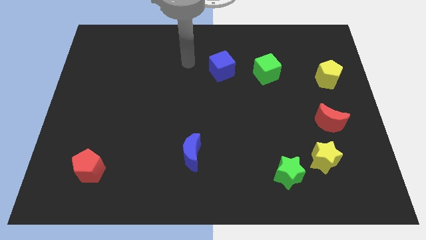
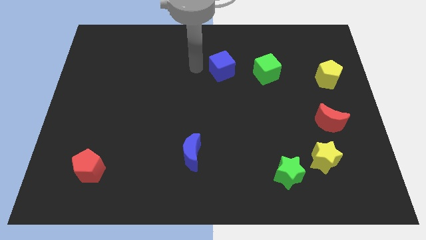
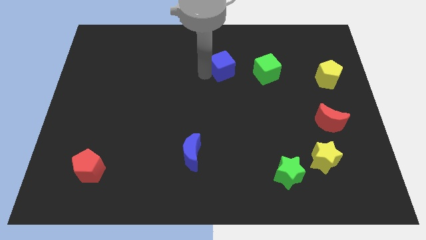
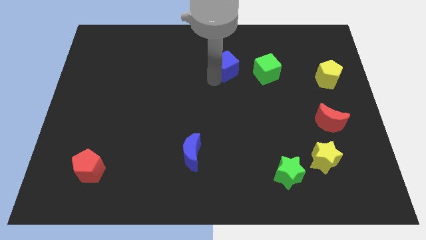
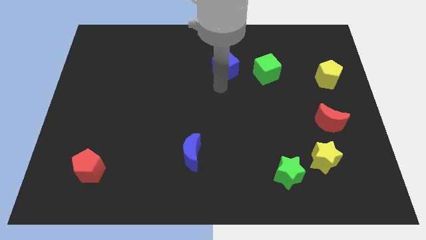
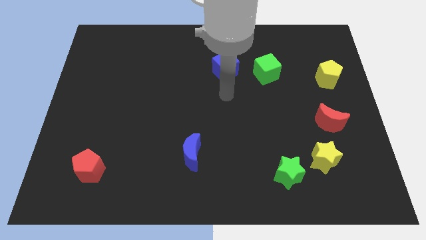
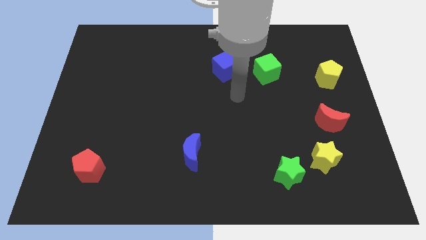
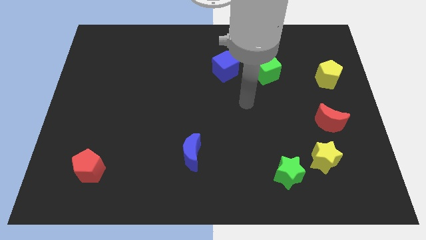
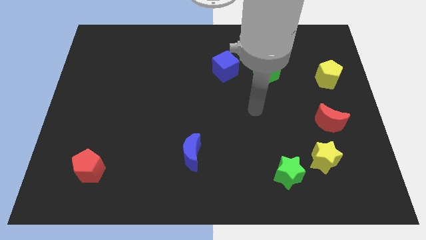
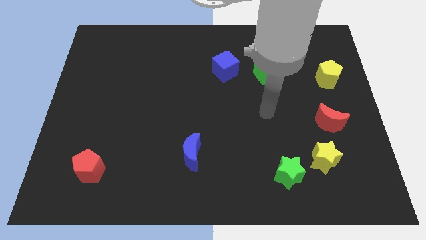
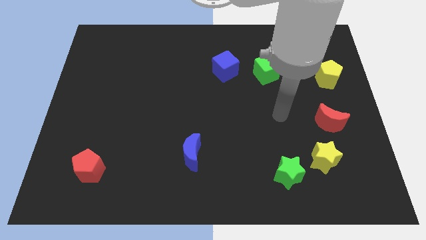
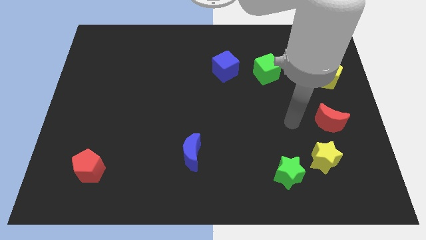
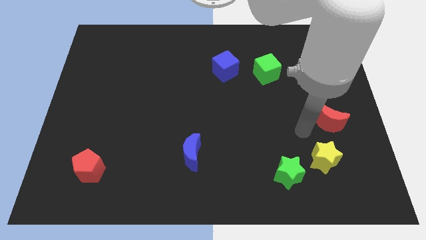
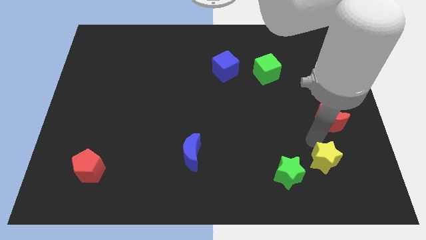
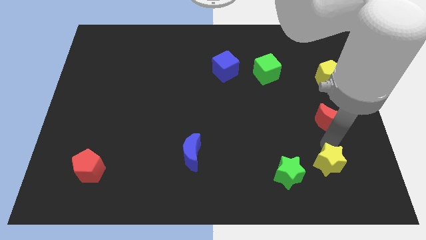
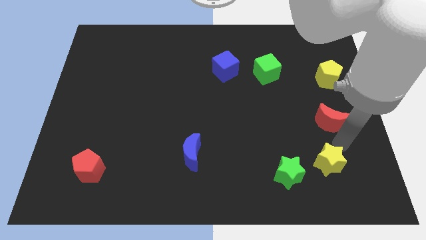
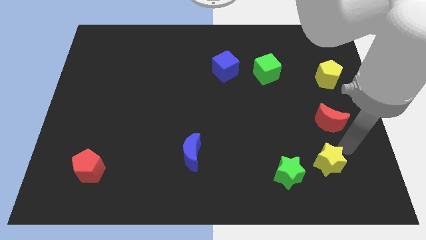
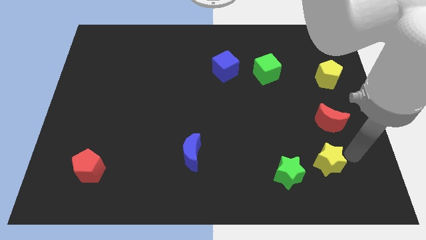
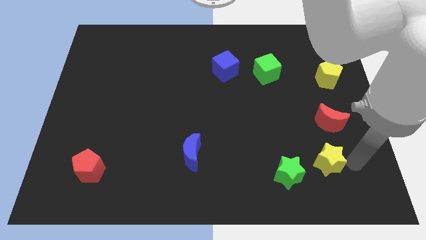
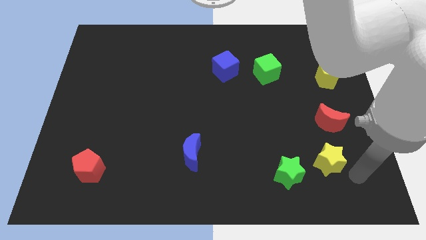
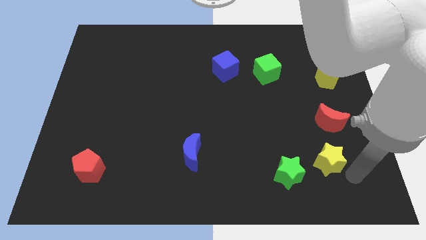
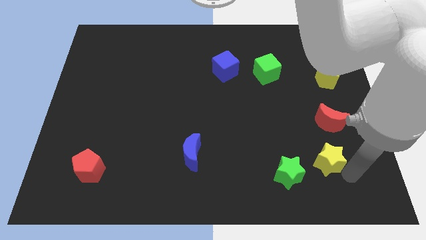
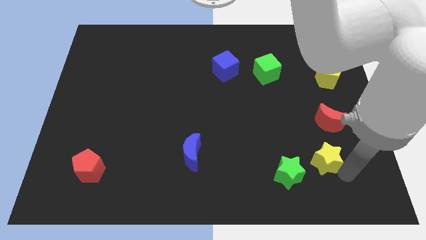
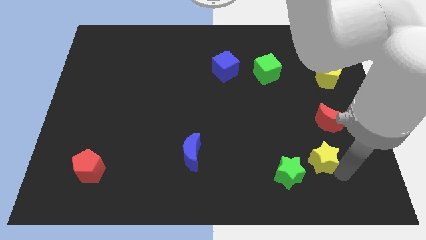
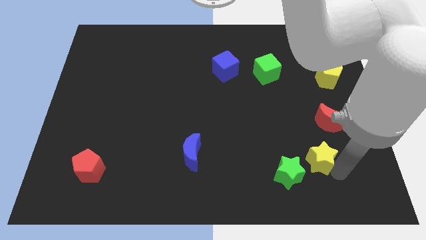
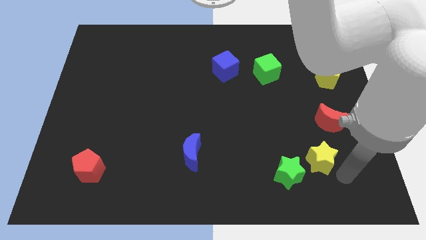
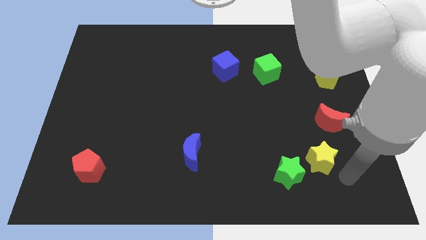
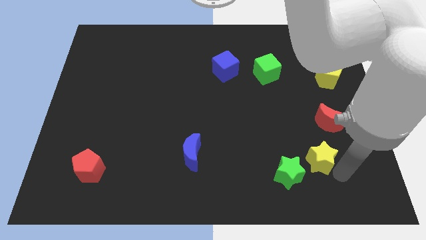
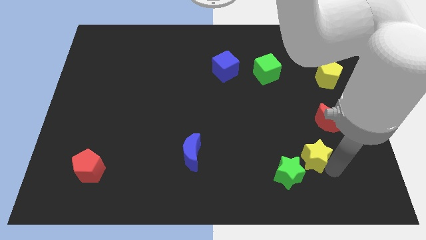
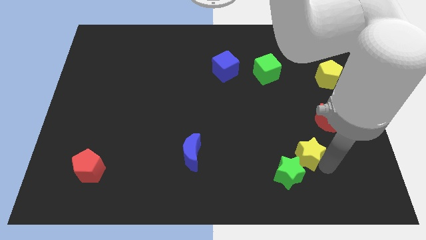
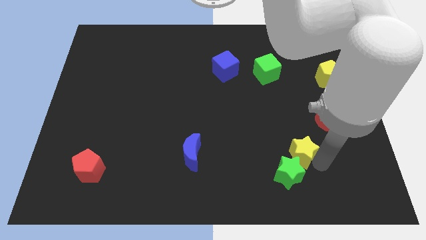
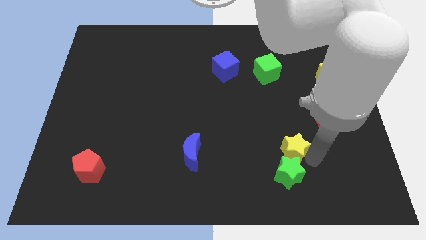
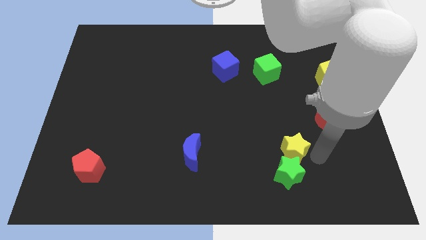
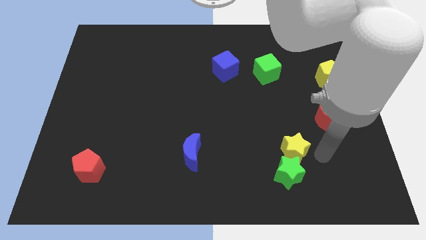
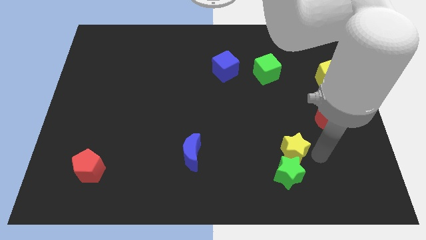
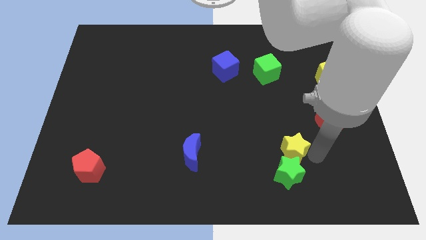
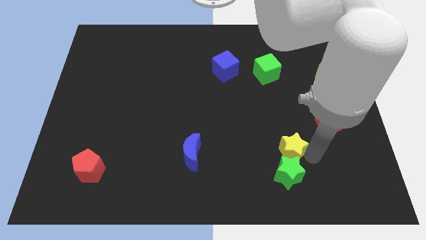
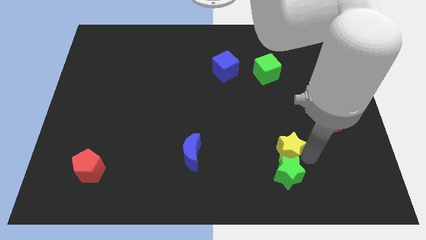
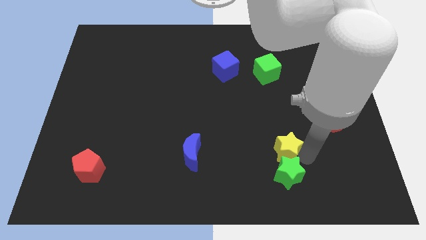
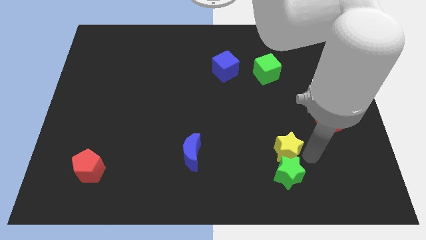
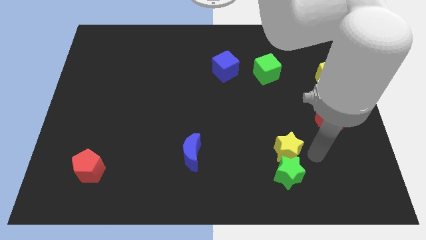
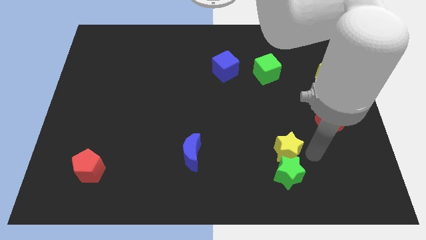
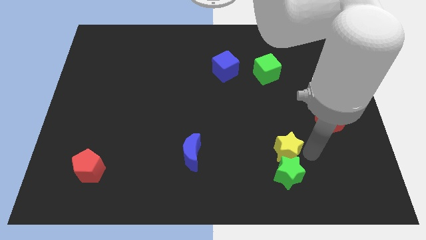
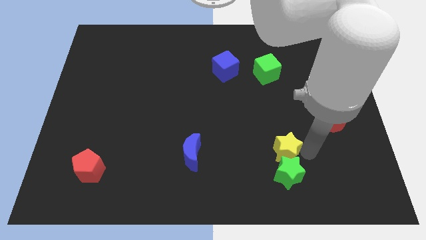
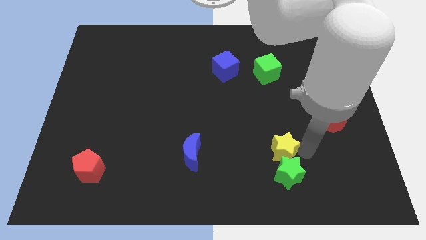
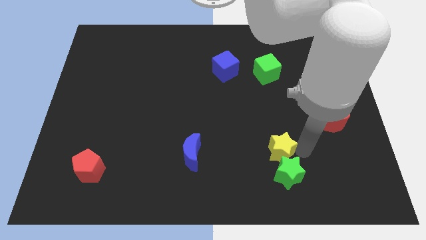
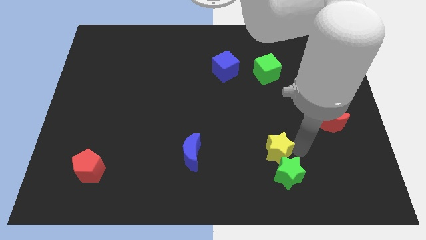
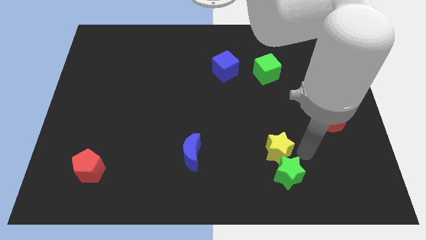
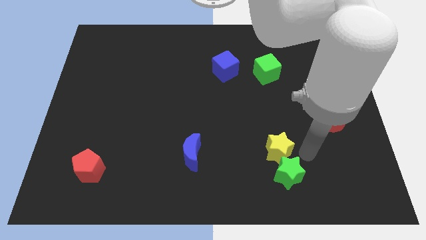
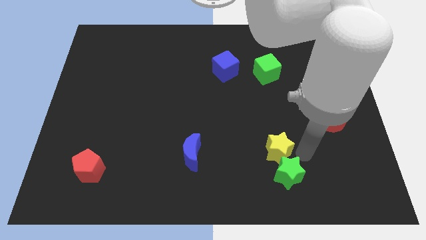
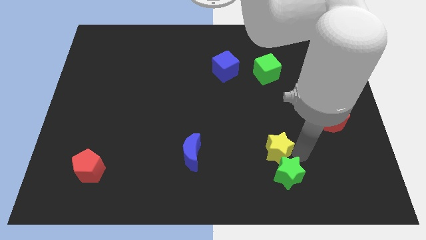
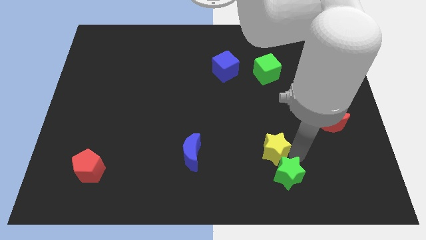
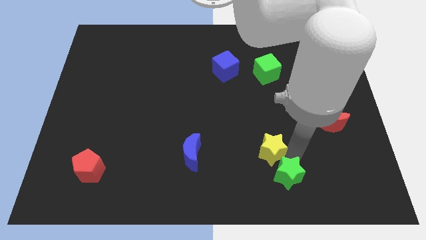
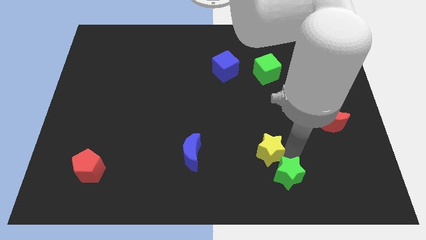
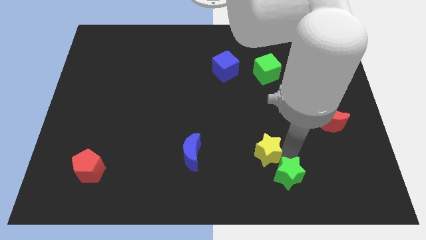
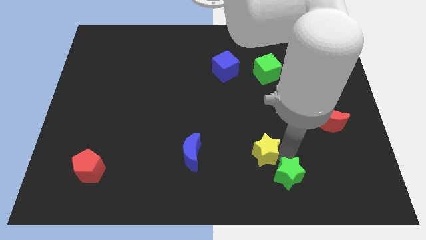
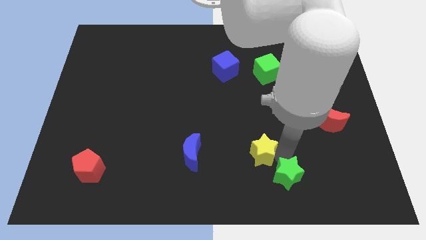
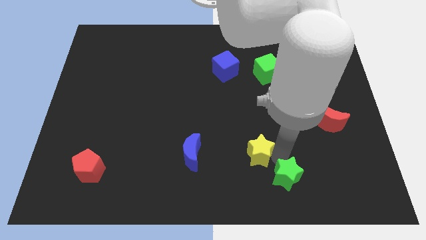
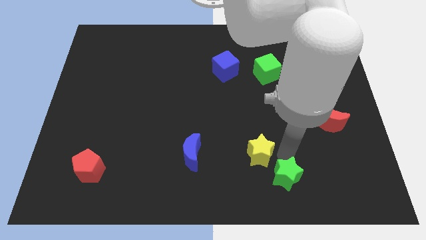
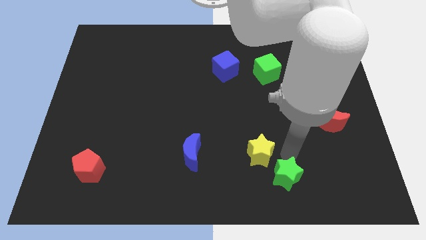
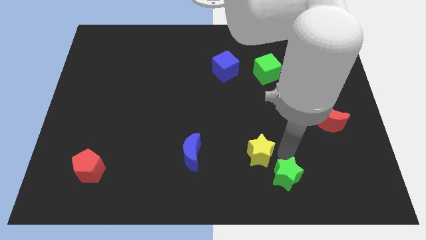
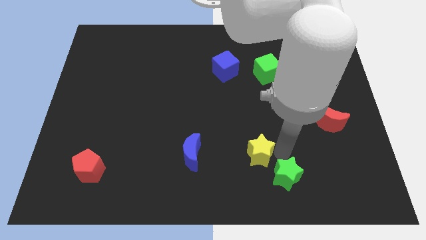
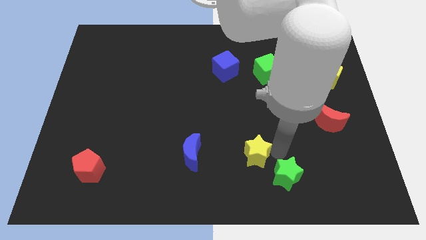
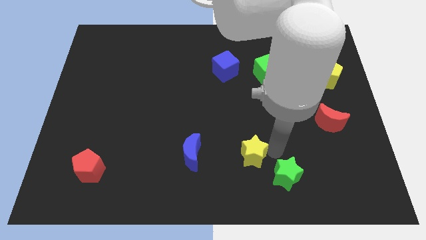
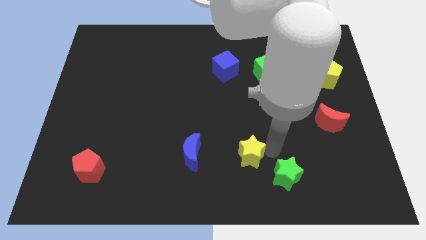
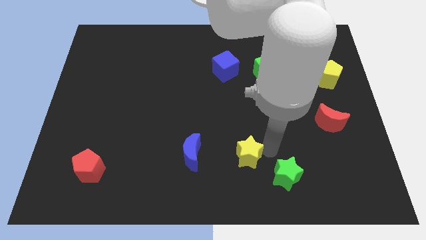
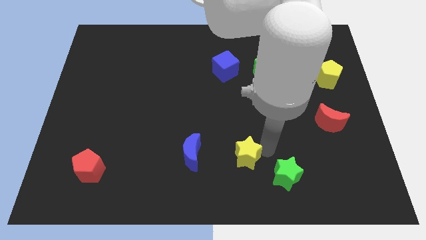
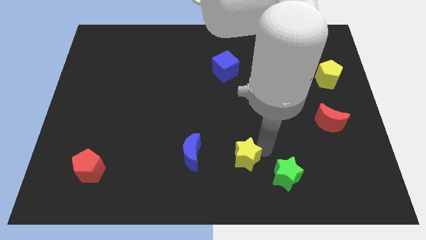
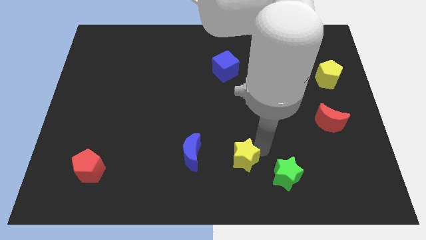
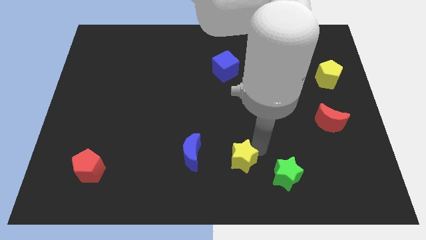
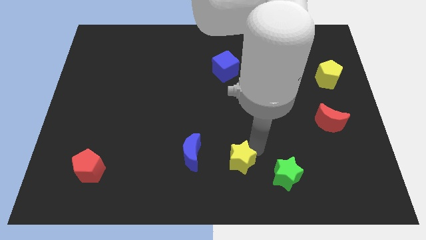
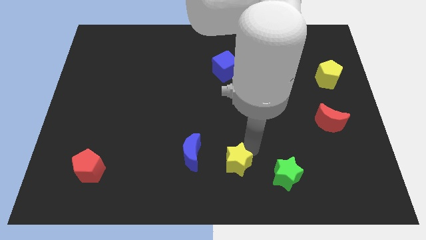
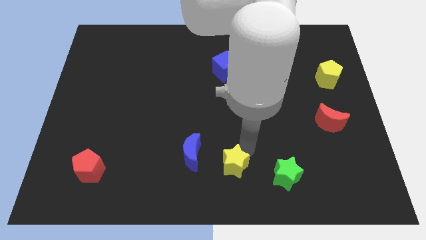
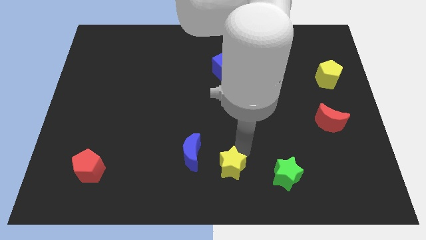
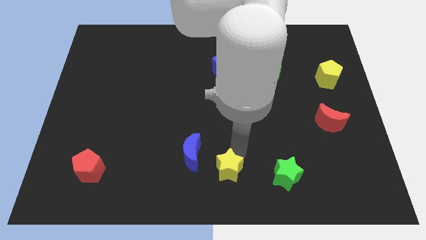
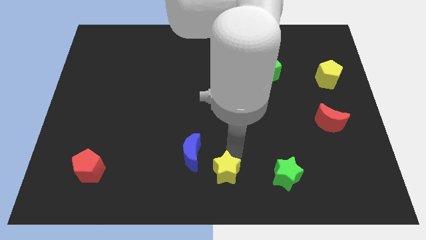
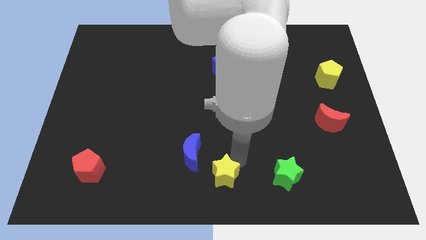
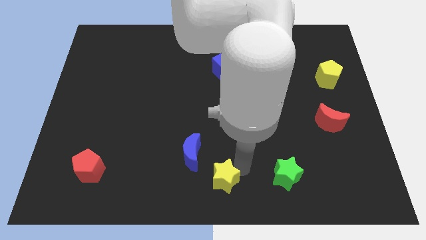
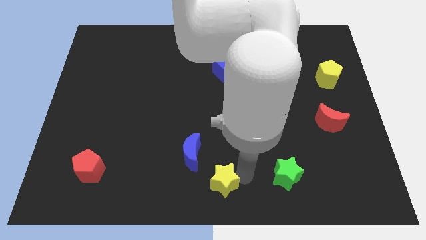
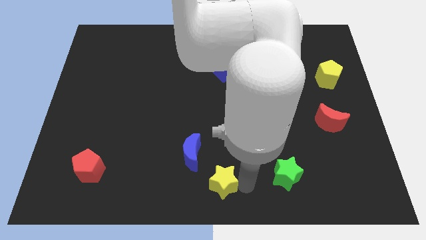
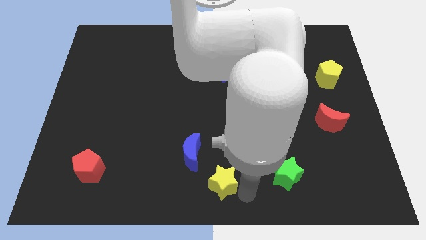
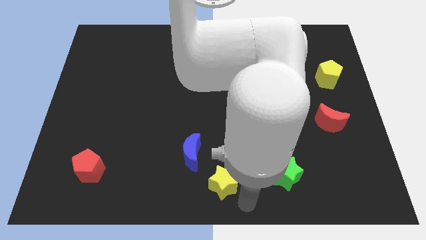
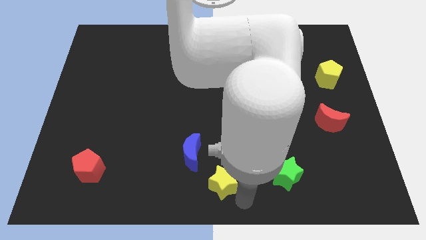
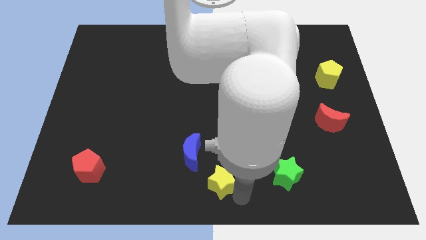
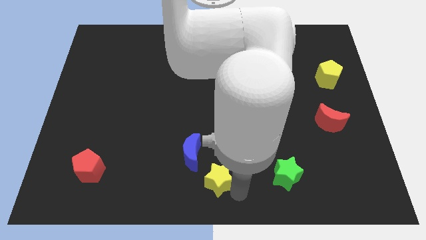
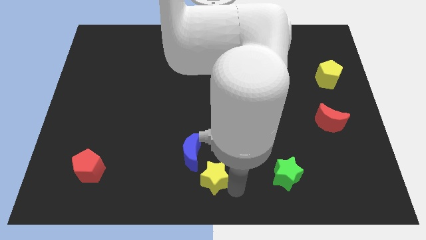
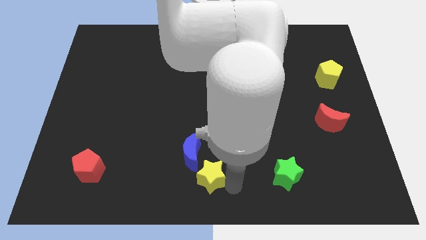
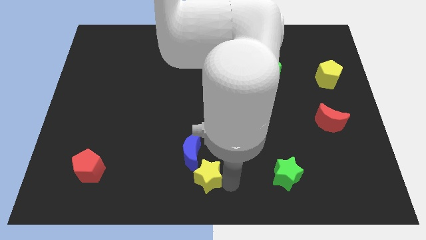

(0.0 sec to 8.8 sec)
slide the yellow star towards the blue moon
